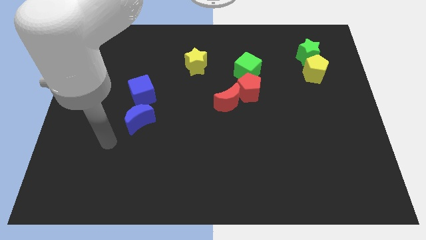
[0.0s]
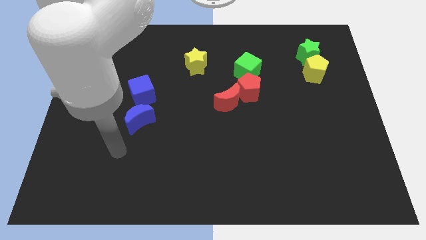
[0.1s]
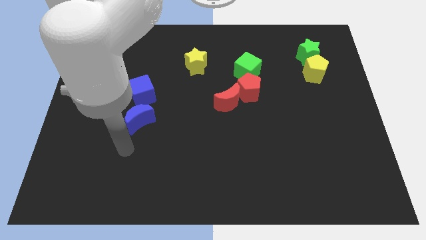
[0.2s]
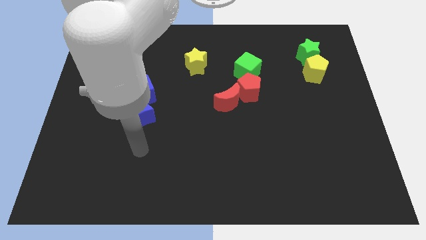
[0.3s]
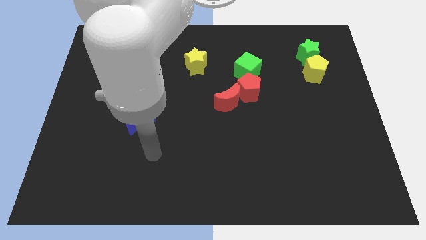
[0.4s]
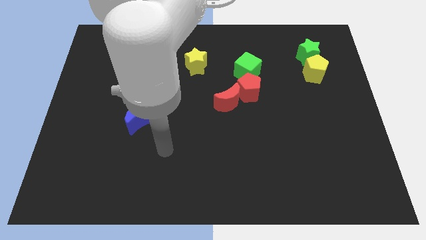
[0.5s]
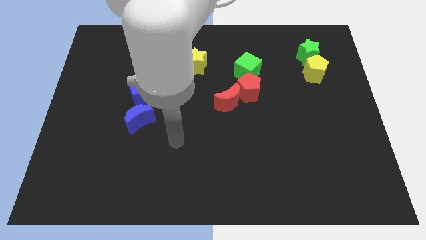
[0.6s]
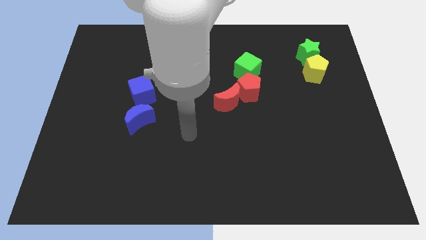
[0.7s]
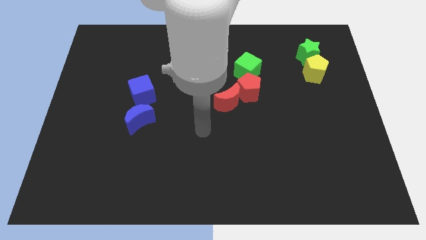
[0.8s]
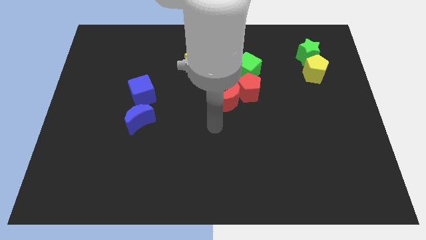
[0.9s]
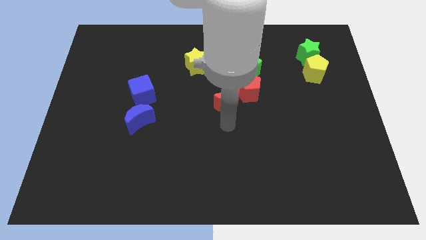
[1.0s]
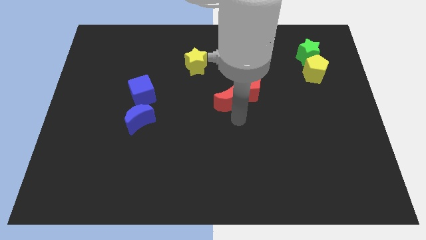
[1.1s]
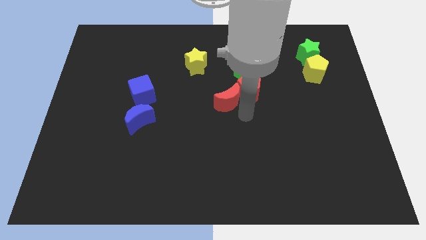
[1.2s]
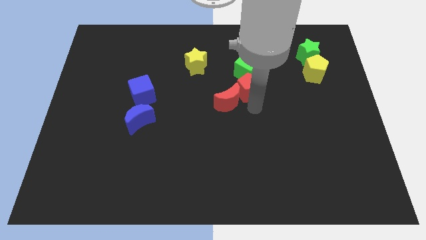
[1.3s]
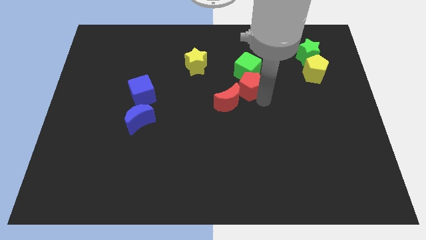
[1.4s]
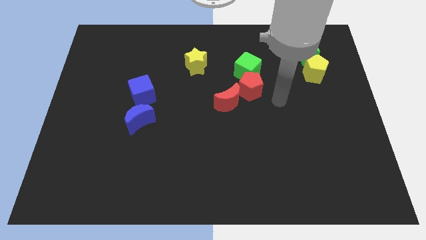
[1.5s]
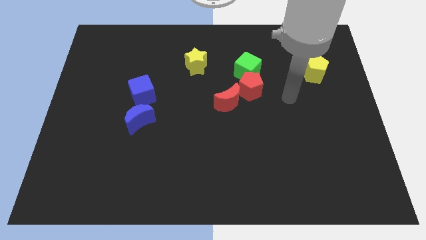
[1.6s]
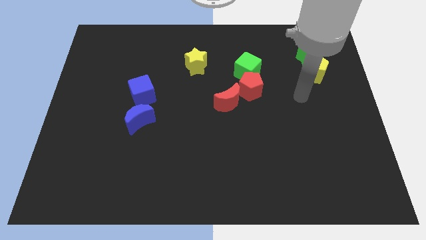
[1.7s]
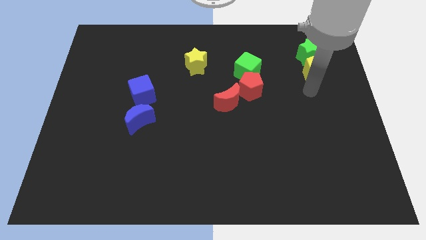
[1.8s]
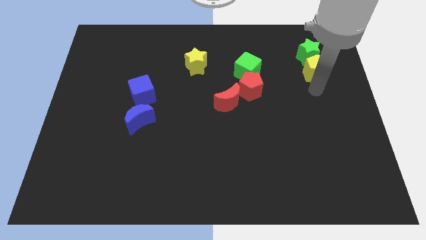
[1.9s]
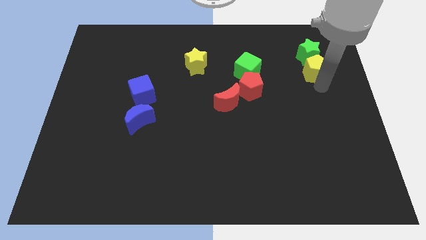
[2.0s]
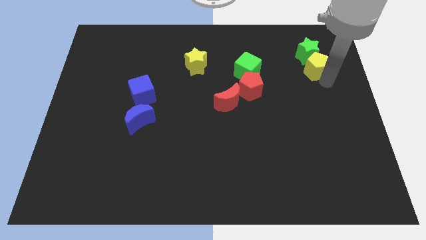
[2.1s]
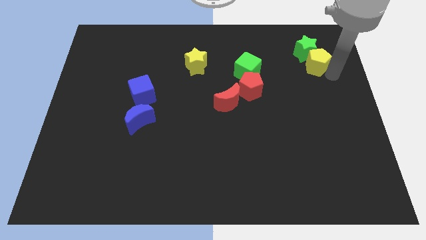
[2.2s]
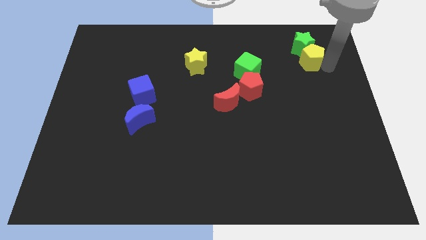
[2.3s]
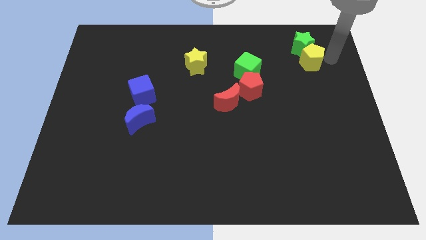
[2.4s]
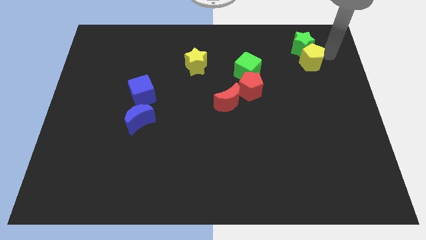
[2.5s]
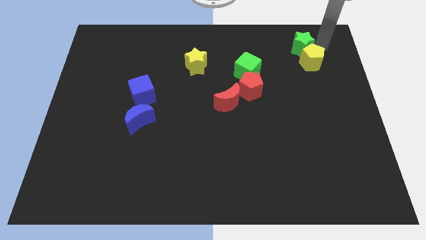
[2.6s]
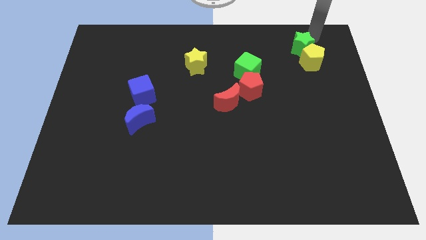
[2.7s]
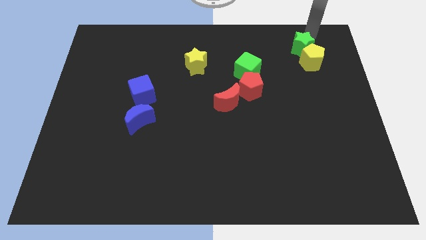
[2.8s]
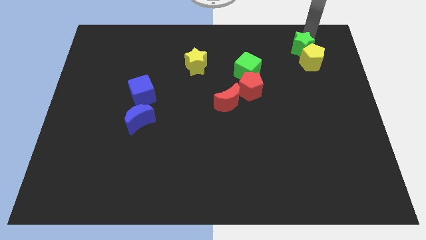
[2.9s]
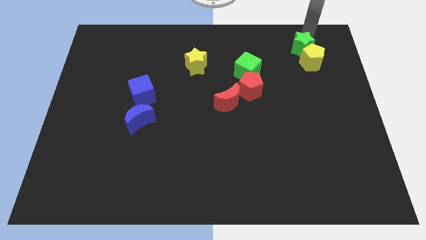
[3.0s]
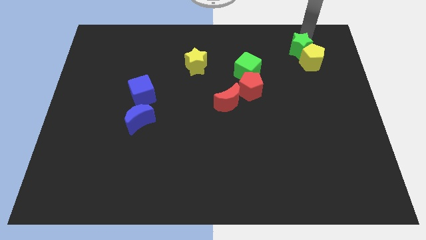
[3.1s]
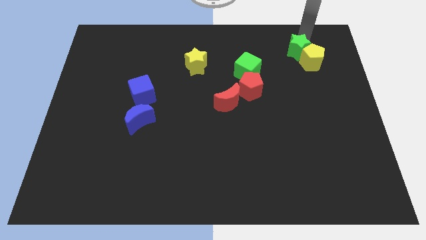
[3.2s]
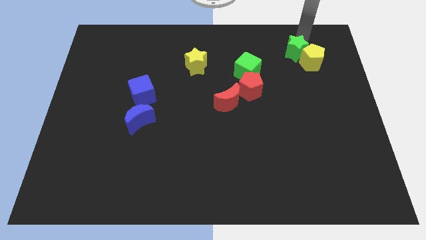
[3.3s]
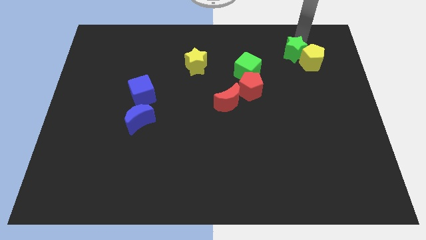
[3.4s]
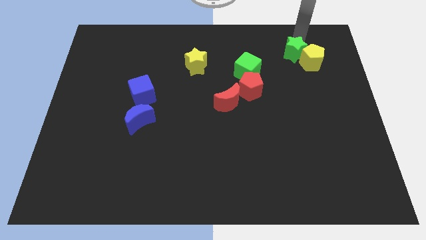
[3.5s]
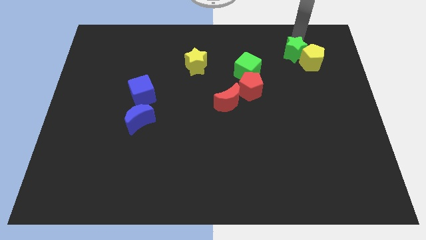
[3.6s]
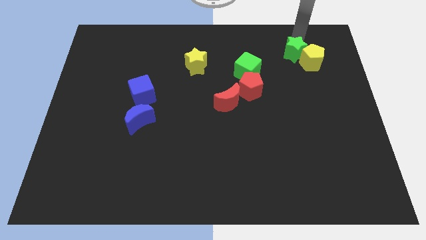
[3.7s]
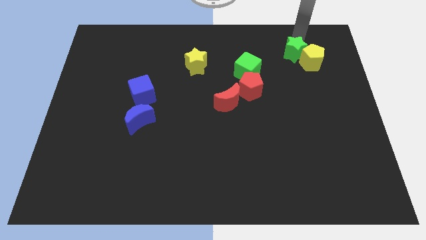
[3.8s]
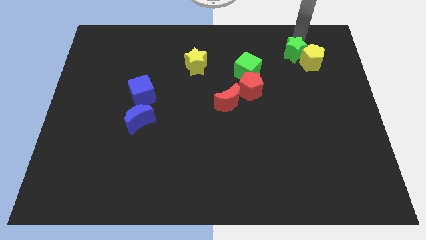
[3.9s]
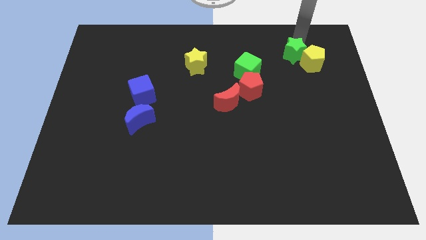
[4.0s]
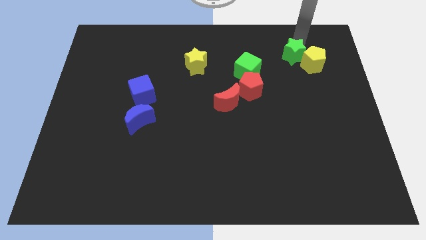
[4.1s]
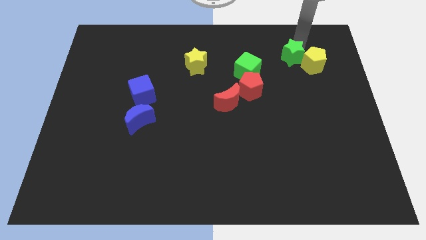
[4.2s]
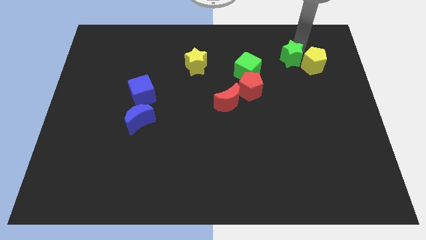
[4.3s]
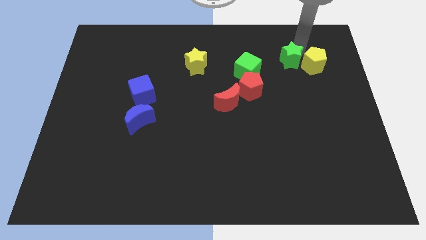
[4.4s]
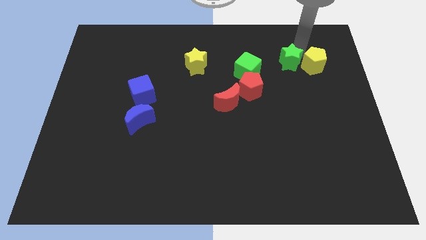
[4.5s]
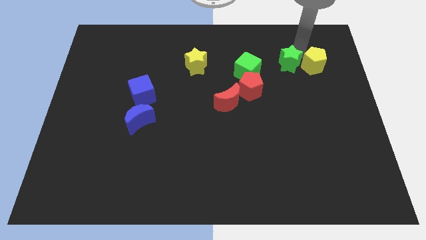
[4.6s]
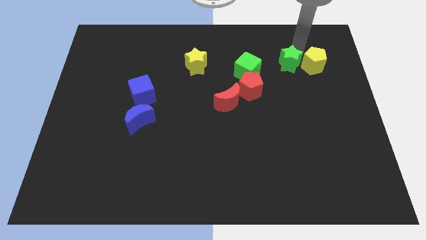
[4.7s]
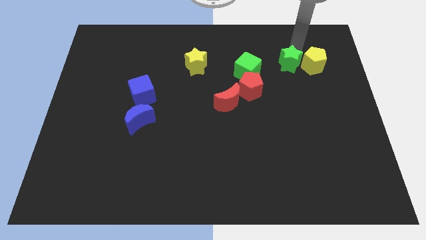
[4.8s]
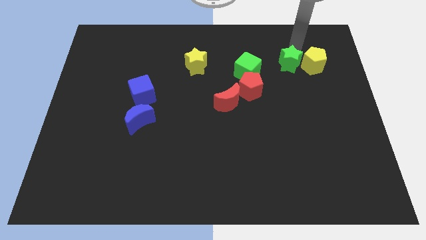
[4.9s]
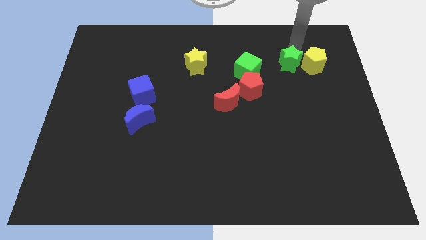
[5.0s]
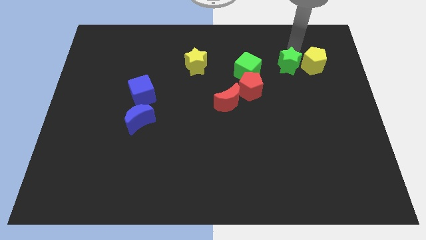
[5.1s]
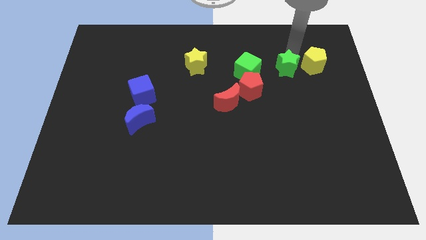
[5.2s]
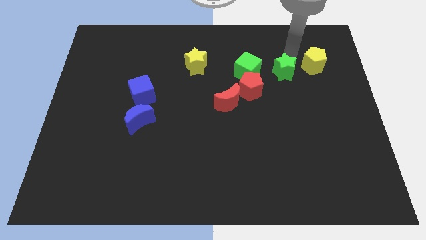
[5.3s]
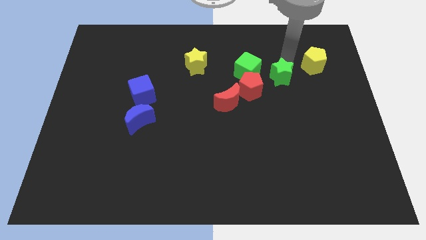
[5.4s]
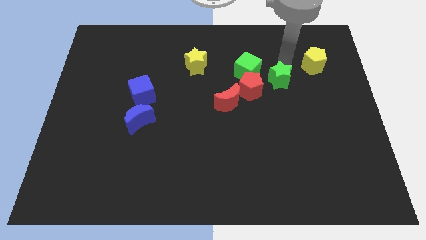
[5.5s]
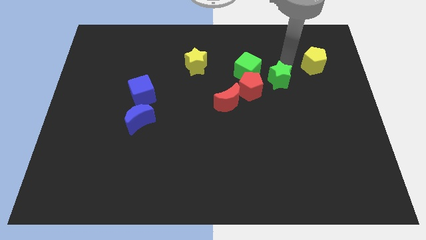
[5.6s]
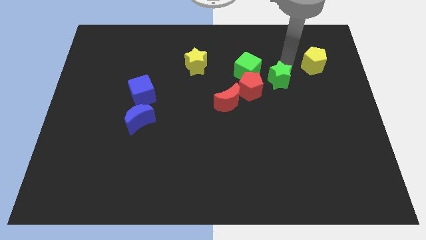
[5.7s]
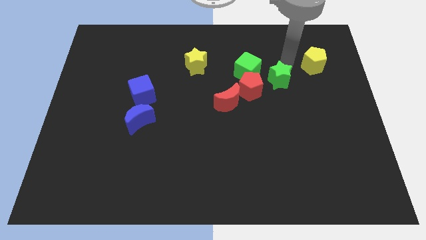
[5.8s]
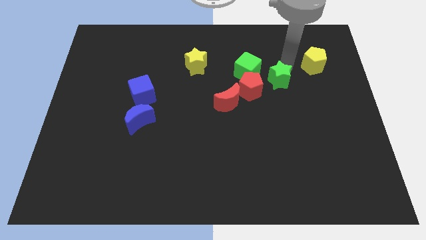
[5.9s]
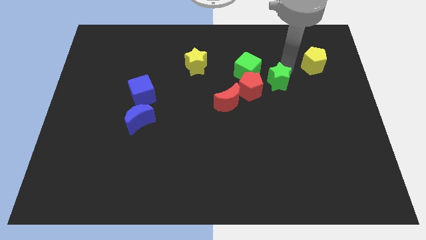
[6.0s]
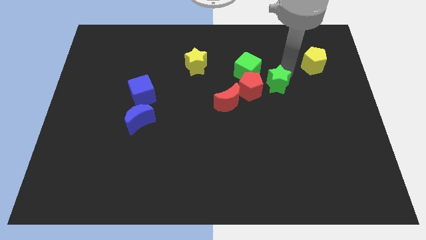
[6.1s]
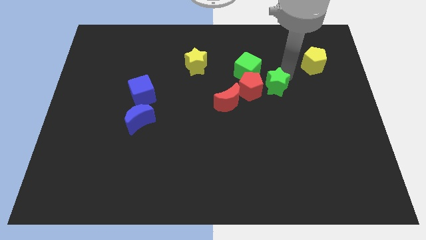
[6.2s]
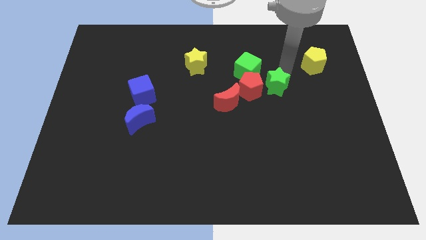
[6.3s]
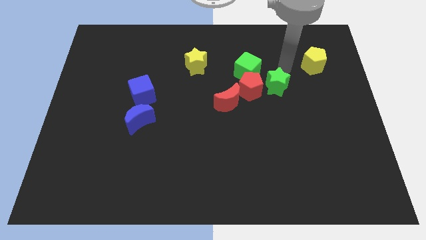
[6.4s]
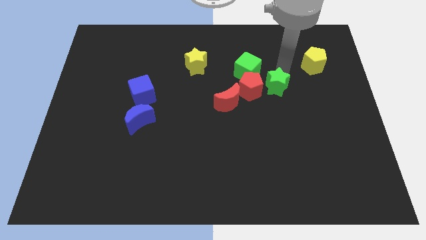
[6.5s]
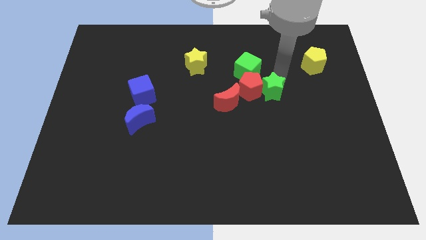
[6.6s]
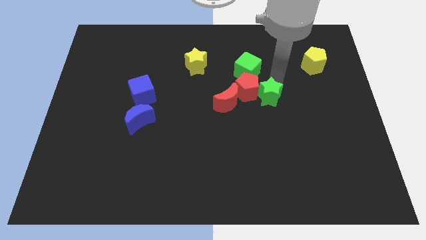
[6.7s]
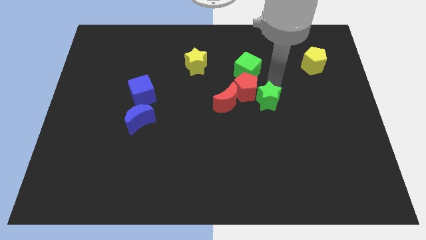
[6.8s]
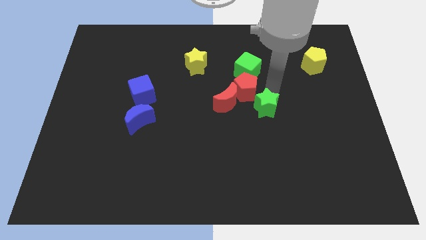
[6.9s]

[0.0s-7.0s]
move the green star diagonally downwards and to the left

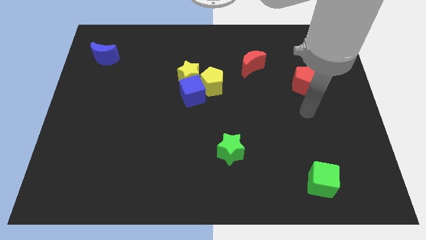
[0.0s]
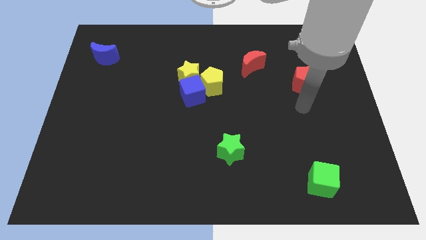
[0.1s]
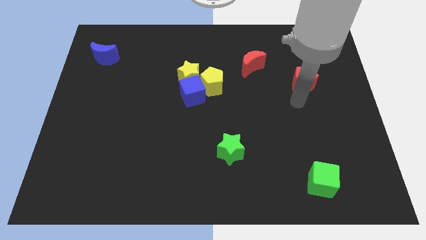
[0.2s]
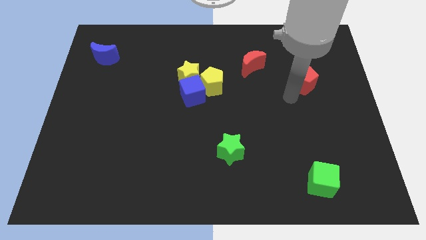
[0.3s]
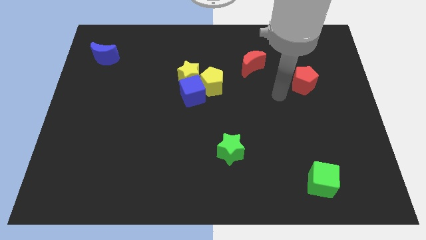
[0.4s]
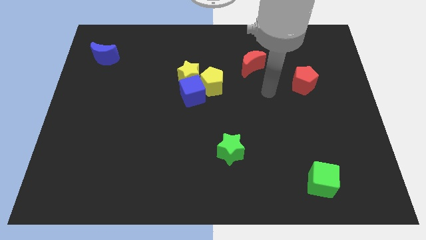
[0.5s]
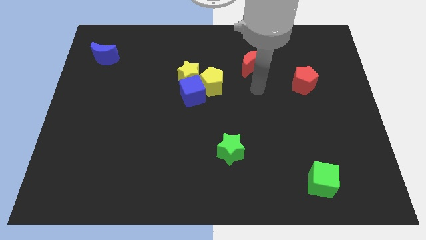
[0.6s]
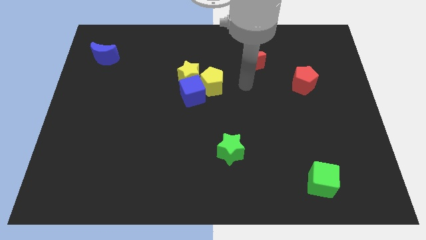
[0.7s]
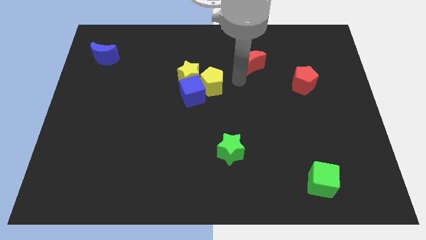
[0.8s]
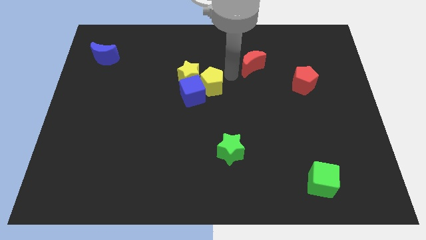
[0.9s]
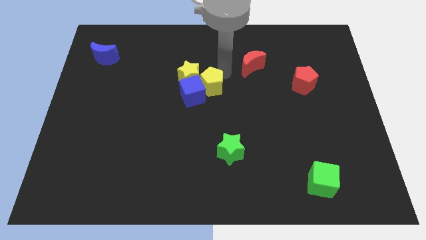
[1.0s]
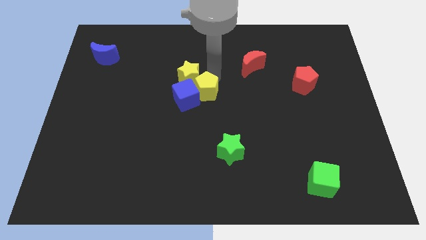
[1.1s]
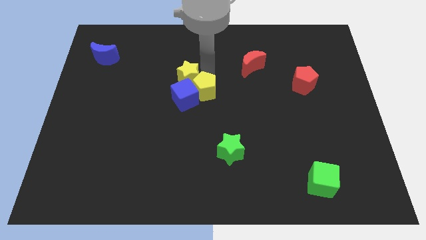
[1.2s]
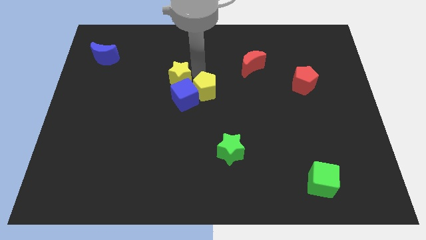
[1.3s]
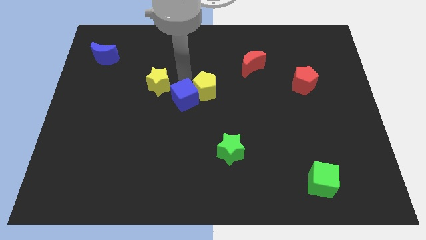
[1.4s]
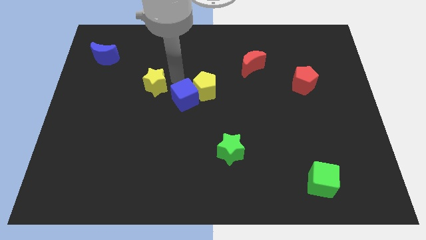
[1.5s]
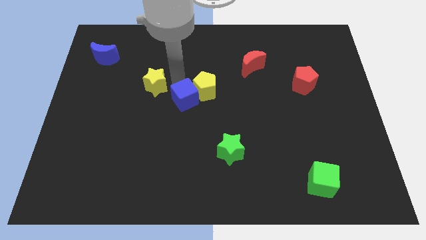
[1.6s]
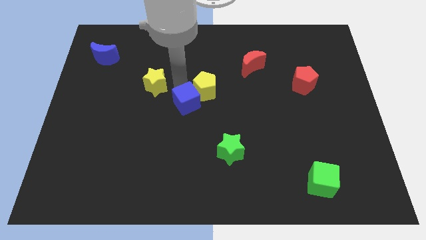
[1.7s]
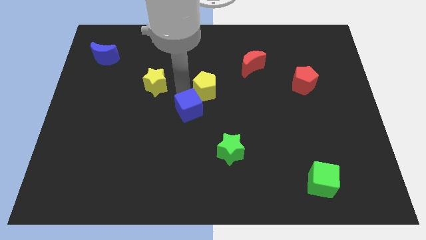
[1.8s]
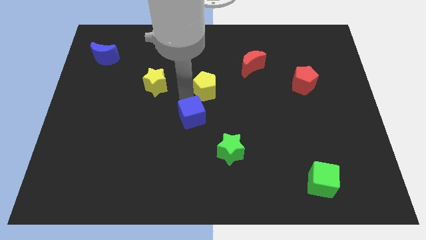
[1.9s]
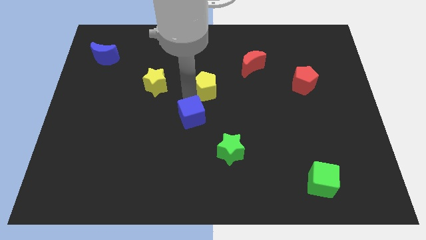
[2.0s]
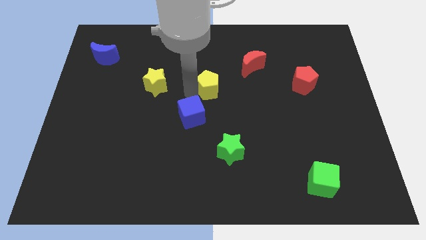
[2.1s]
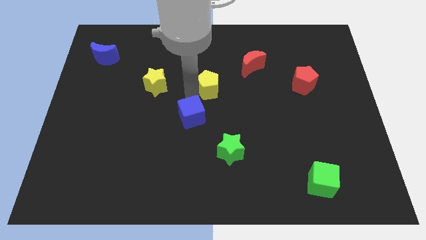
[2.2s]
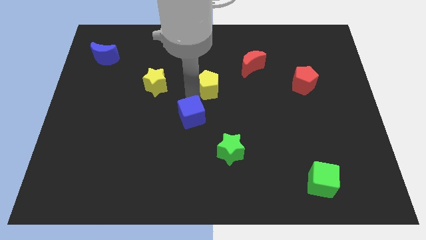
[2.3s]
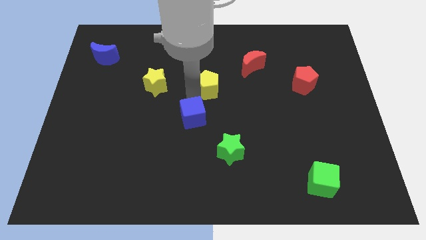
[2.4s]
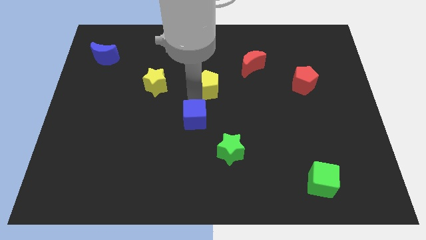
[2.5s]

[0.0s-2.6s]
slightly slide the blue cube down
